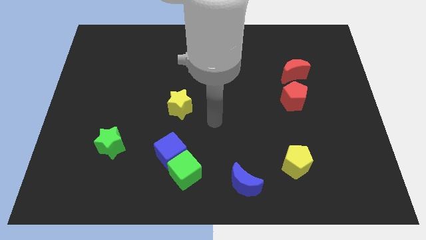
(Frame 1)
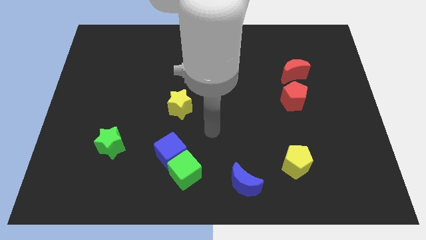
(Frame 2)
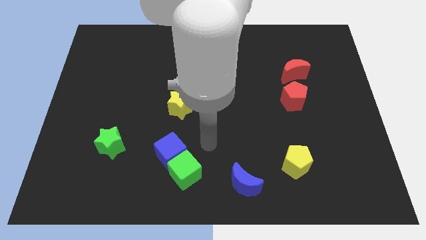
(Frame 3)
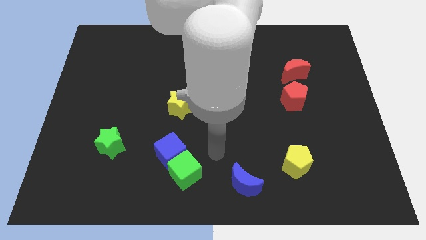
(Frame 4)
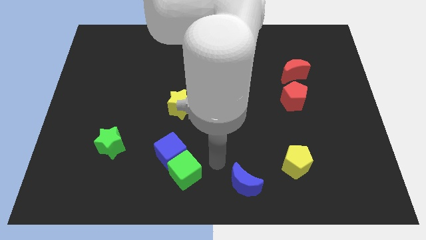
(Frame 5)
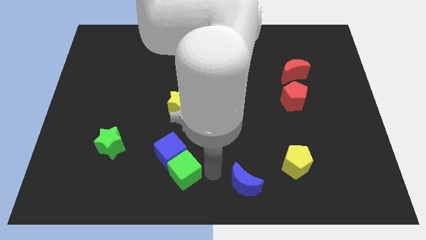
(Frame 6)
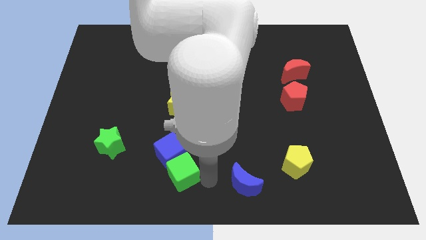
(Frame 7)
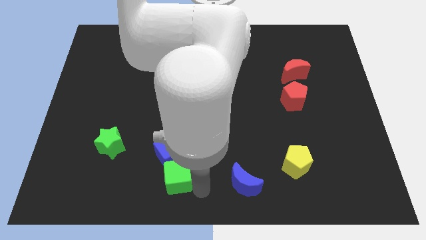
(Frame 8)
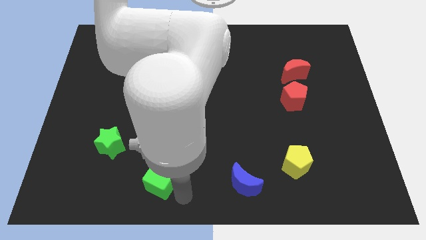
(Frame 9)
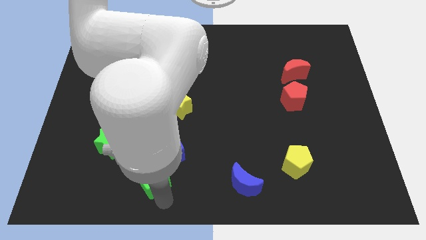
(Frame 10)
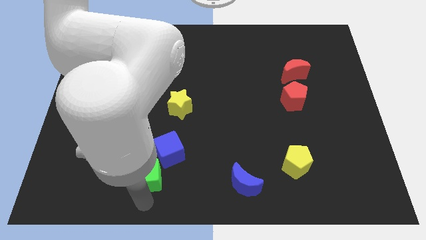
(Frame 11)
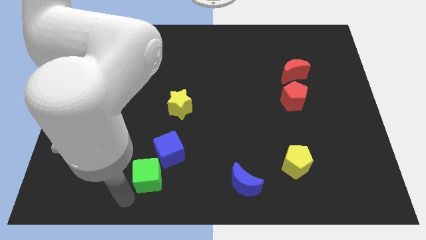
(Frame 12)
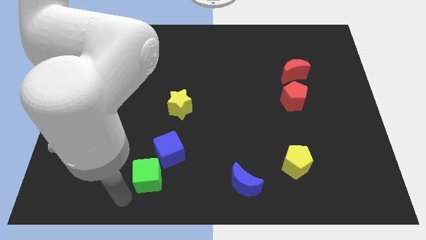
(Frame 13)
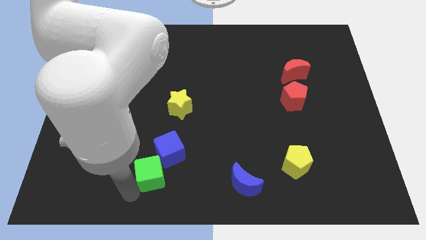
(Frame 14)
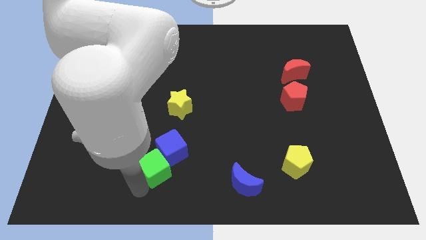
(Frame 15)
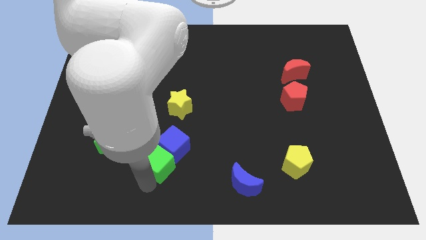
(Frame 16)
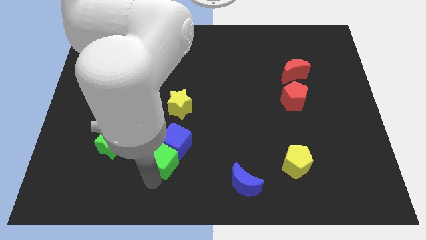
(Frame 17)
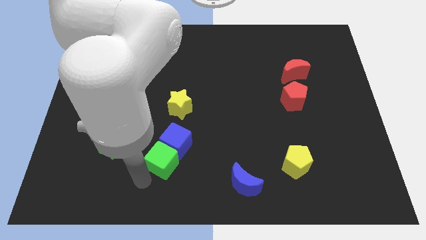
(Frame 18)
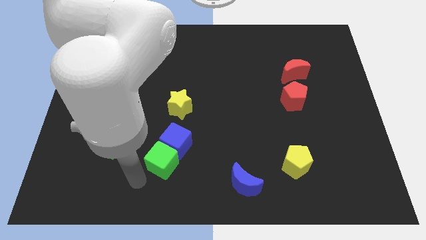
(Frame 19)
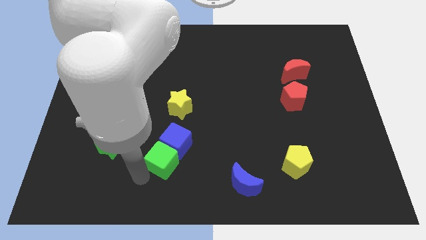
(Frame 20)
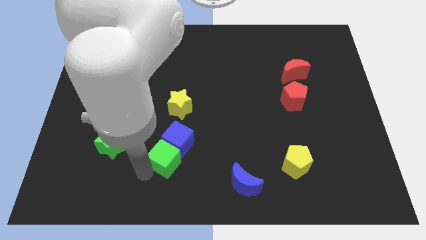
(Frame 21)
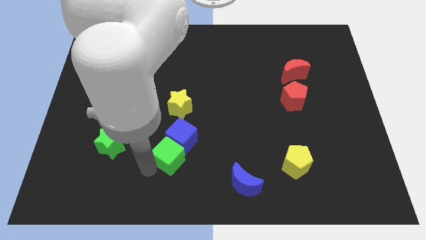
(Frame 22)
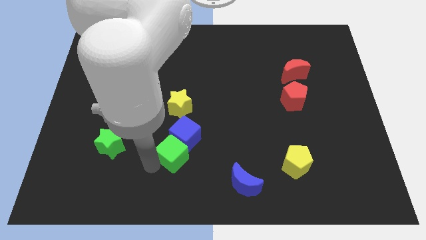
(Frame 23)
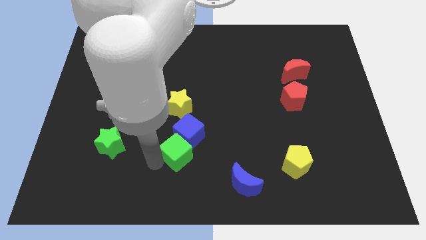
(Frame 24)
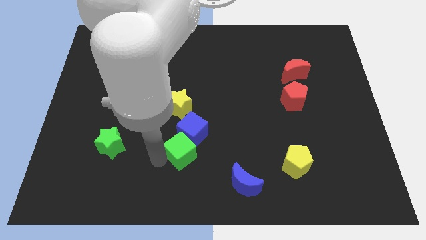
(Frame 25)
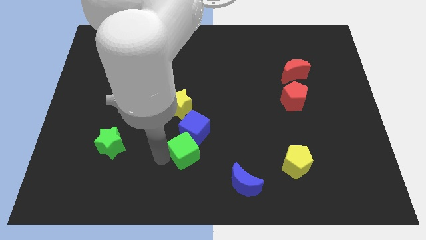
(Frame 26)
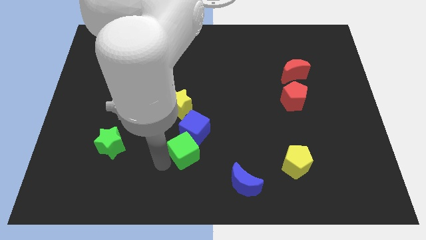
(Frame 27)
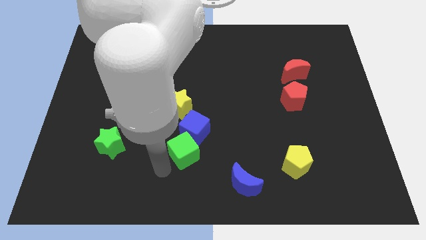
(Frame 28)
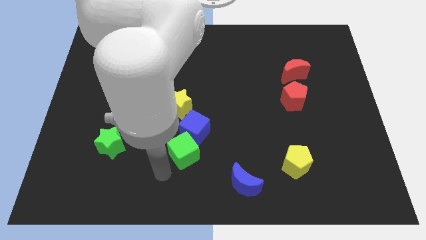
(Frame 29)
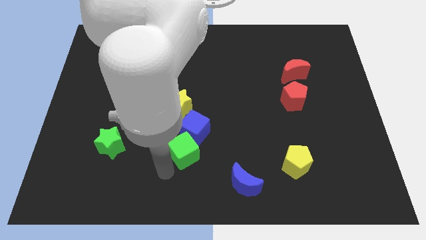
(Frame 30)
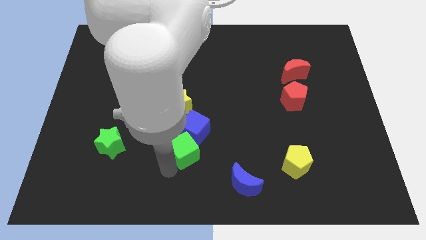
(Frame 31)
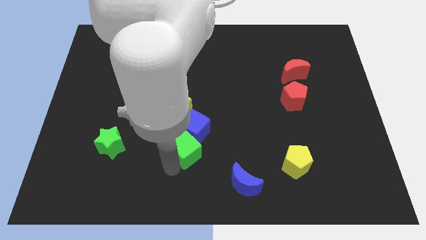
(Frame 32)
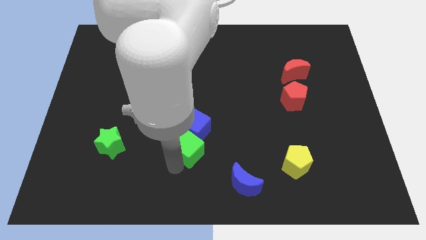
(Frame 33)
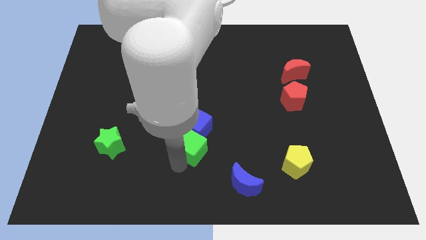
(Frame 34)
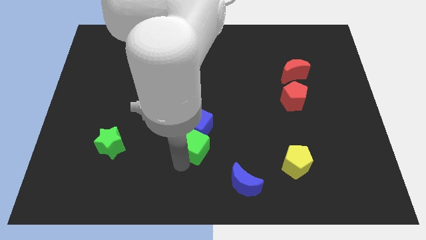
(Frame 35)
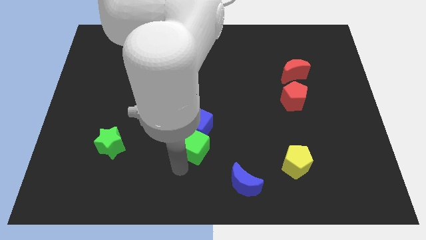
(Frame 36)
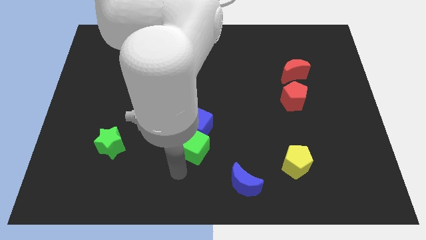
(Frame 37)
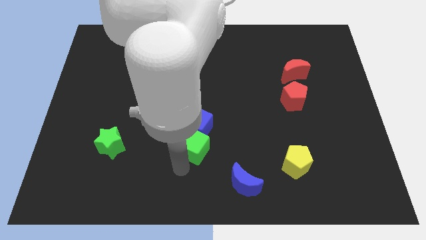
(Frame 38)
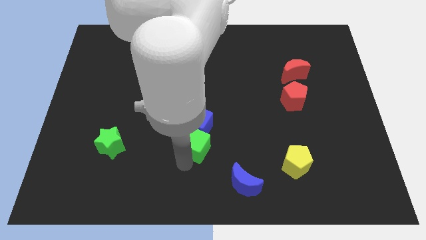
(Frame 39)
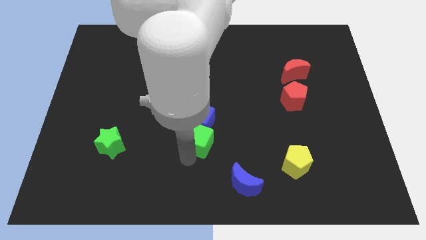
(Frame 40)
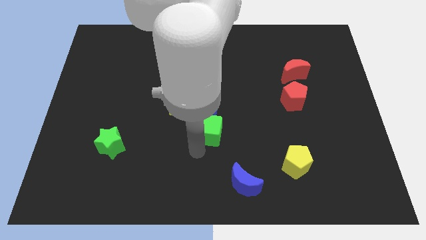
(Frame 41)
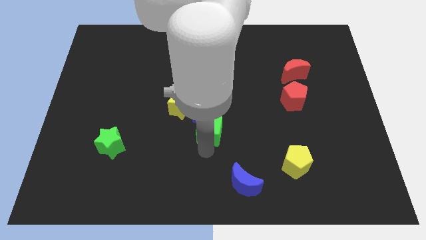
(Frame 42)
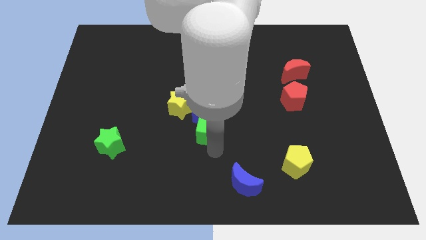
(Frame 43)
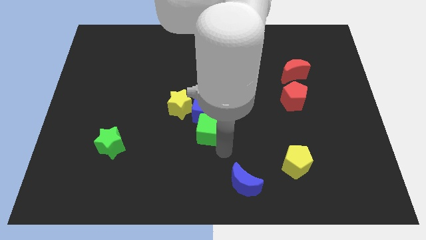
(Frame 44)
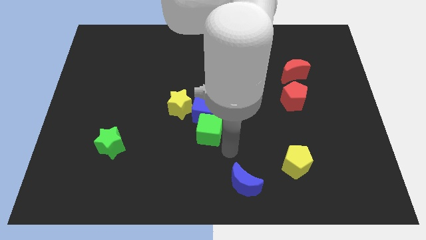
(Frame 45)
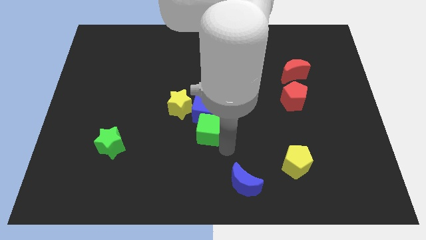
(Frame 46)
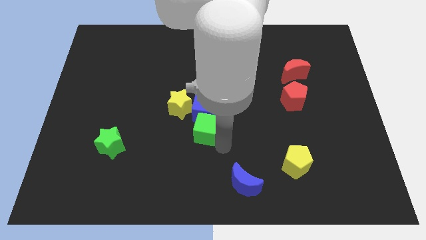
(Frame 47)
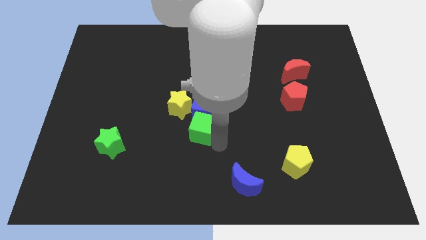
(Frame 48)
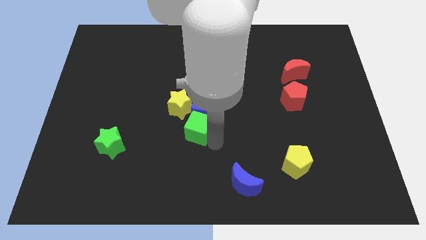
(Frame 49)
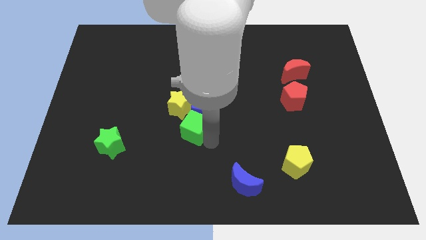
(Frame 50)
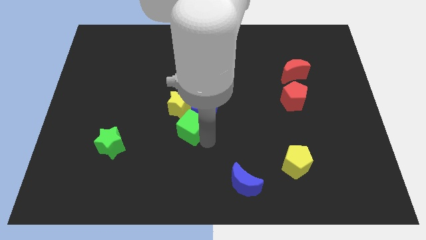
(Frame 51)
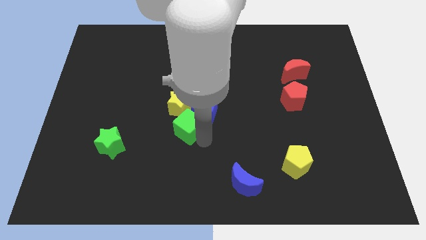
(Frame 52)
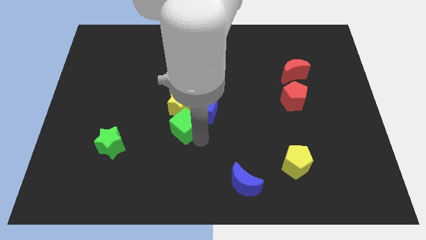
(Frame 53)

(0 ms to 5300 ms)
move the green cube next to the yellow star

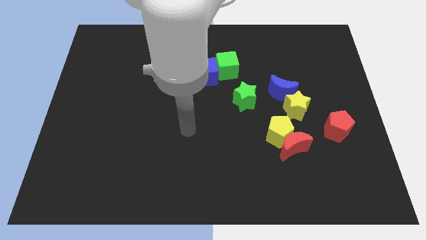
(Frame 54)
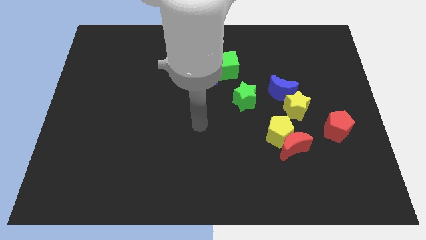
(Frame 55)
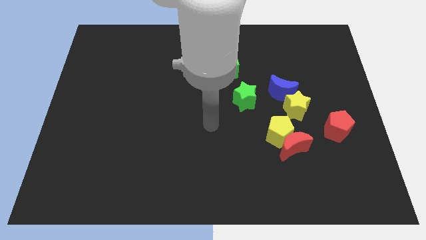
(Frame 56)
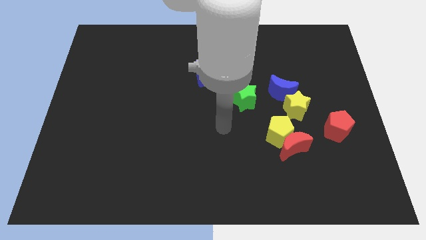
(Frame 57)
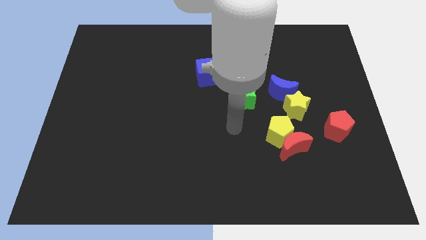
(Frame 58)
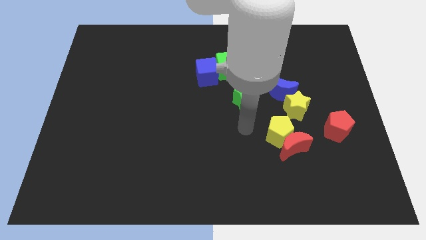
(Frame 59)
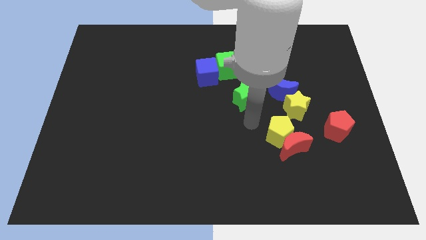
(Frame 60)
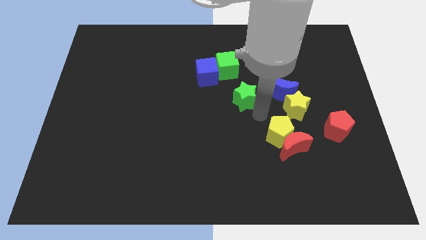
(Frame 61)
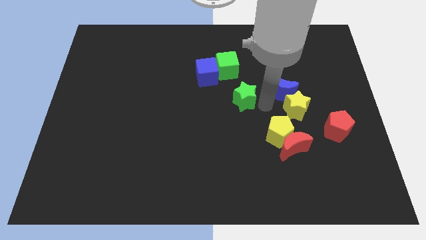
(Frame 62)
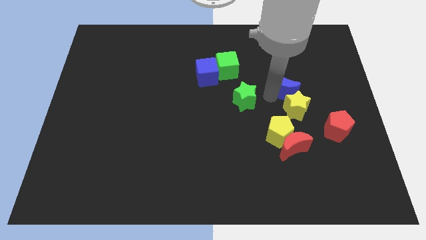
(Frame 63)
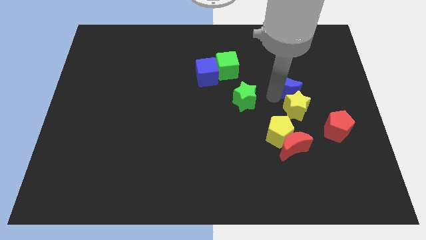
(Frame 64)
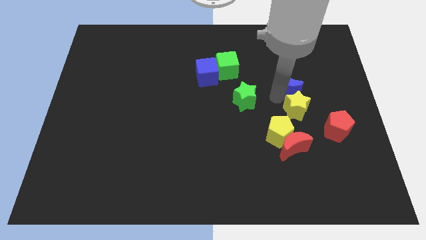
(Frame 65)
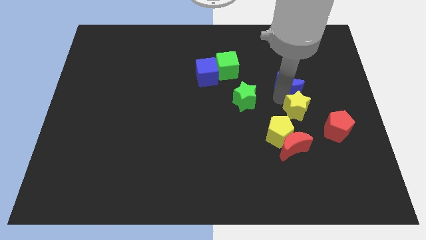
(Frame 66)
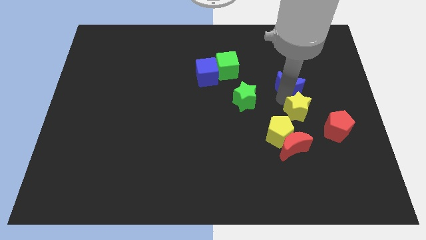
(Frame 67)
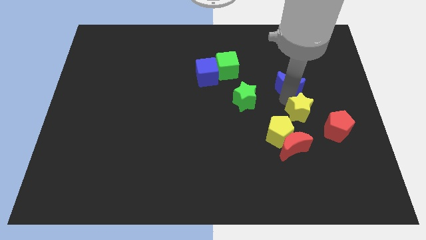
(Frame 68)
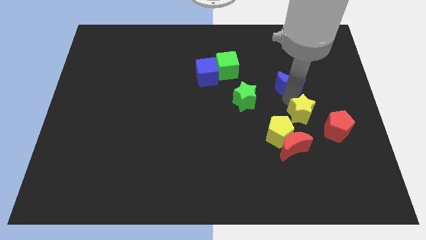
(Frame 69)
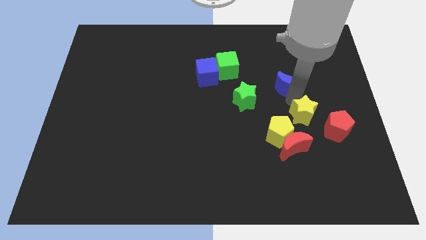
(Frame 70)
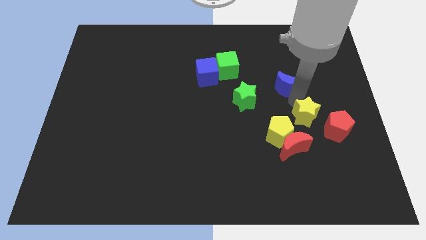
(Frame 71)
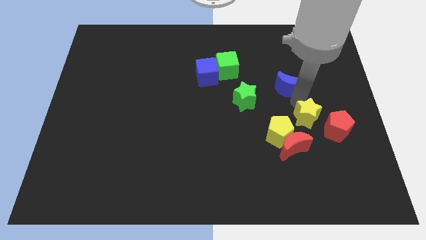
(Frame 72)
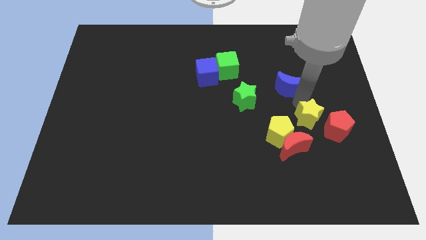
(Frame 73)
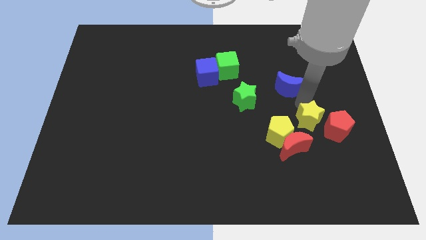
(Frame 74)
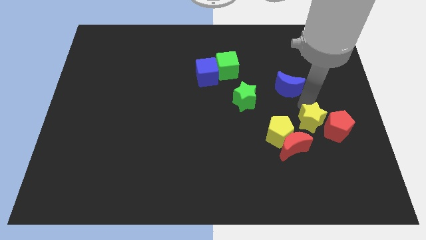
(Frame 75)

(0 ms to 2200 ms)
put the yellow star to the red pentagon
